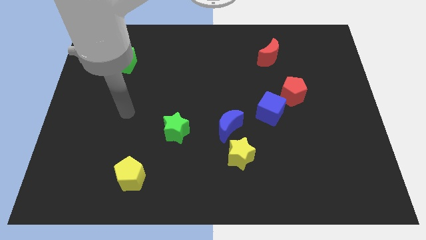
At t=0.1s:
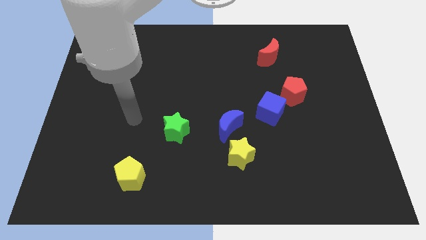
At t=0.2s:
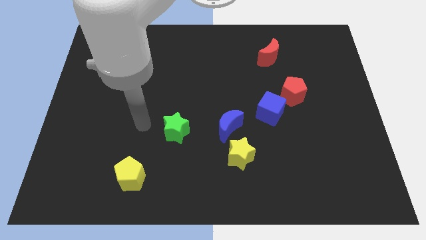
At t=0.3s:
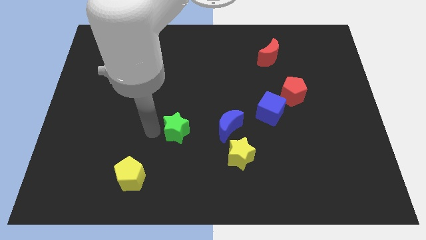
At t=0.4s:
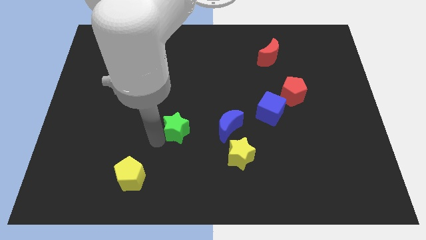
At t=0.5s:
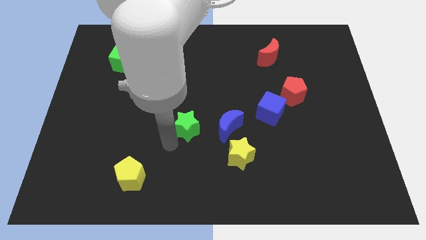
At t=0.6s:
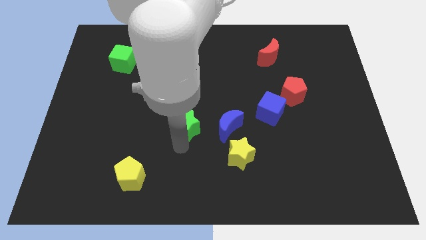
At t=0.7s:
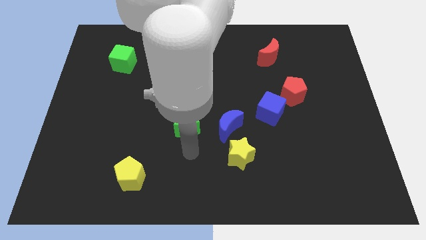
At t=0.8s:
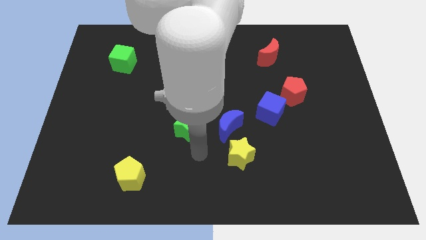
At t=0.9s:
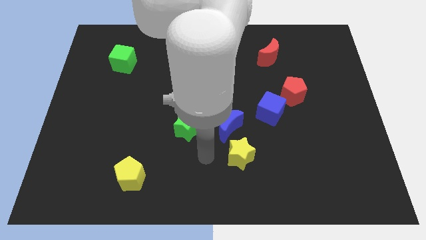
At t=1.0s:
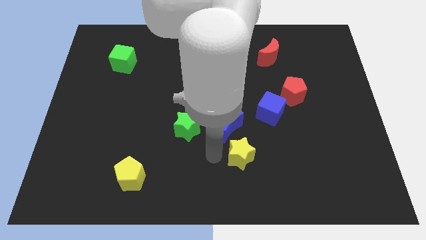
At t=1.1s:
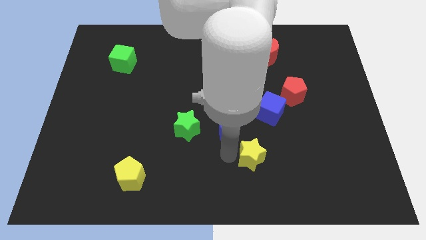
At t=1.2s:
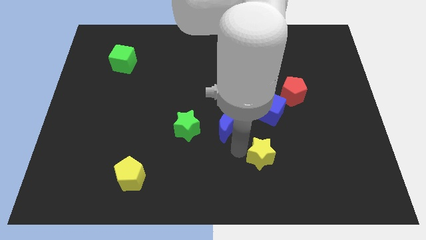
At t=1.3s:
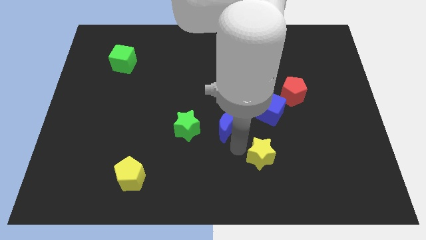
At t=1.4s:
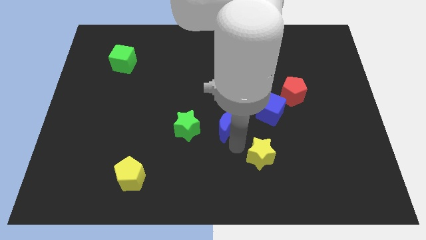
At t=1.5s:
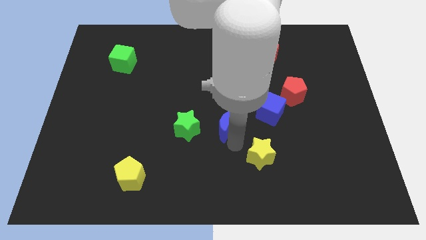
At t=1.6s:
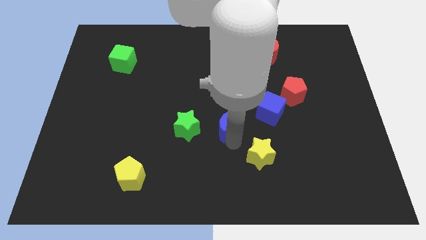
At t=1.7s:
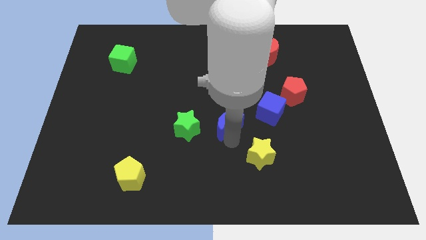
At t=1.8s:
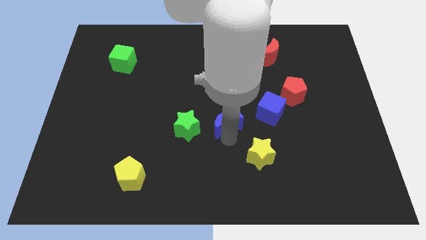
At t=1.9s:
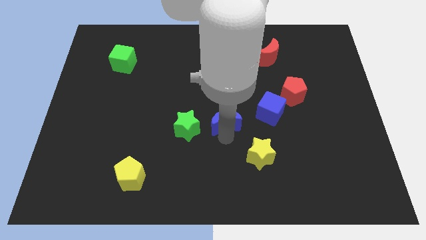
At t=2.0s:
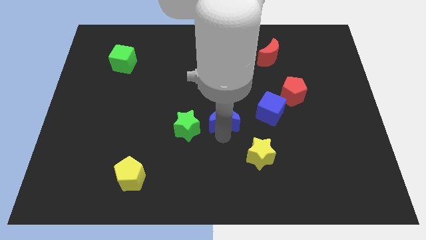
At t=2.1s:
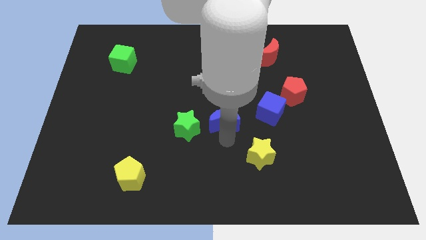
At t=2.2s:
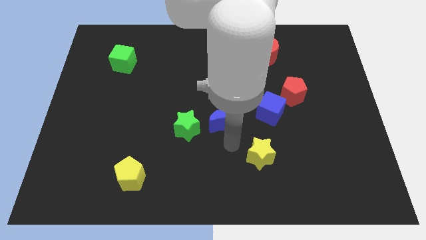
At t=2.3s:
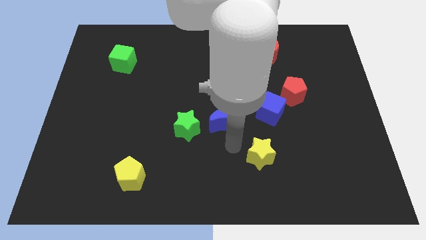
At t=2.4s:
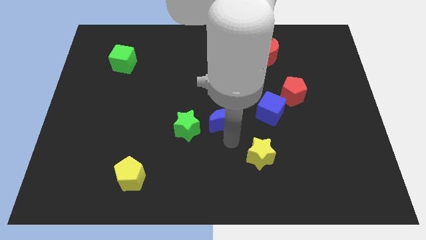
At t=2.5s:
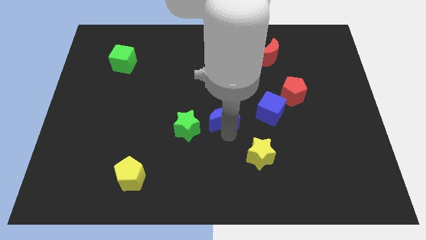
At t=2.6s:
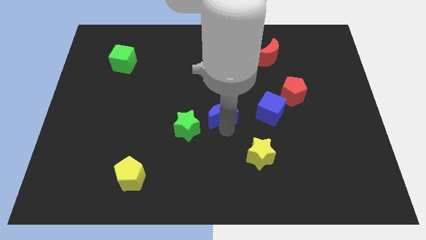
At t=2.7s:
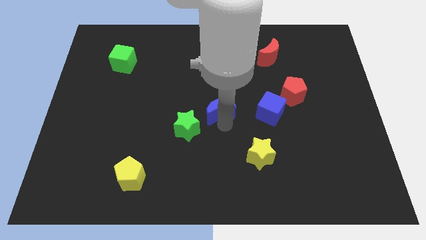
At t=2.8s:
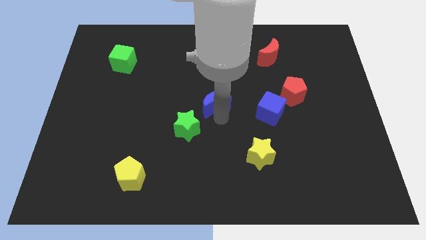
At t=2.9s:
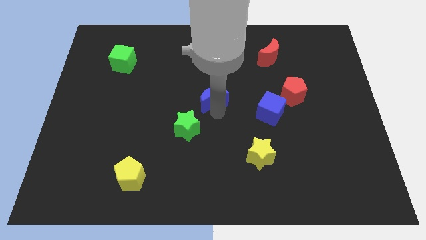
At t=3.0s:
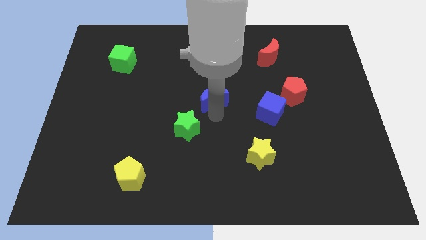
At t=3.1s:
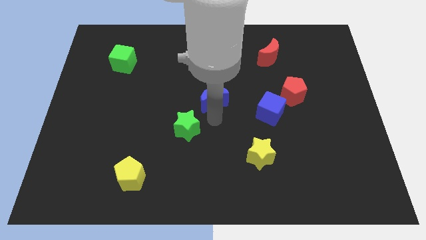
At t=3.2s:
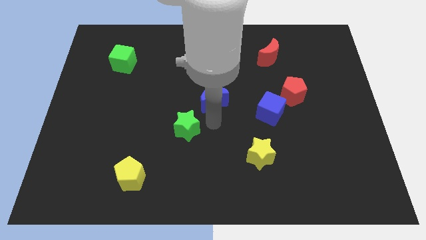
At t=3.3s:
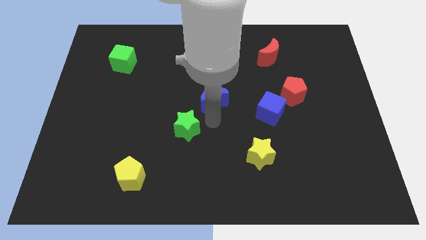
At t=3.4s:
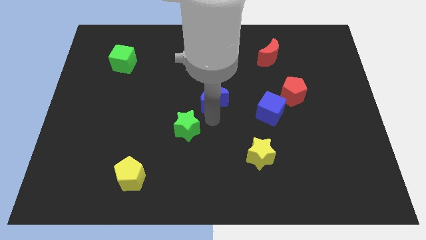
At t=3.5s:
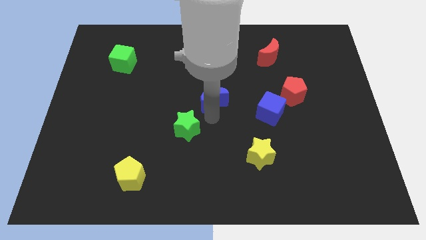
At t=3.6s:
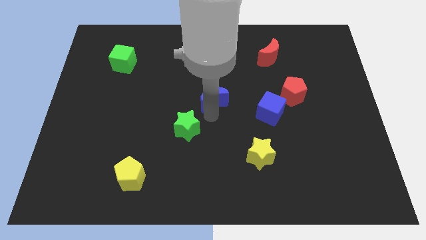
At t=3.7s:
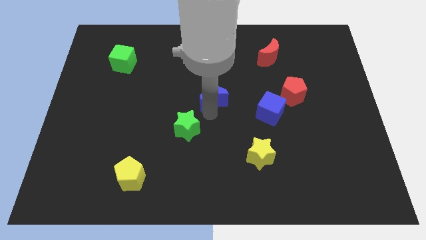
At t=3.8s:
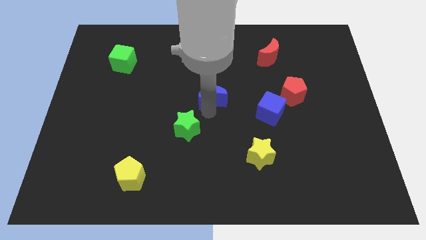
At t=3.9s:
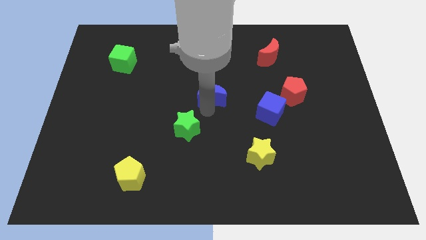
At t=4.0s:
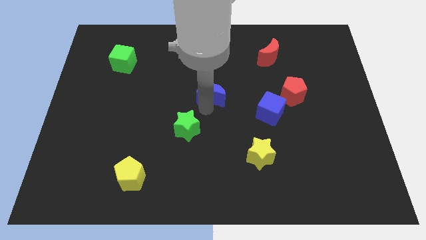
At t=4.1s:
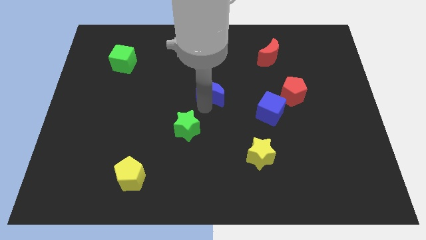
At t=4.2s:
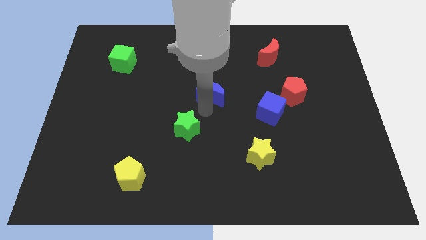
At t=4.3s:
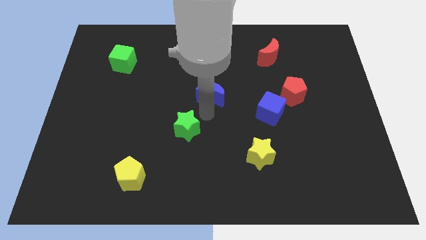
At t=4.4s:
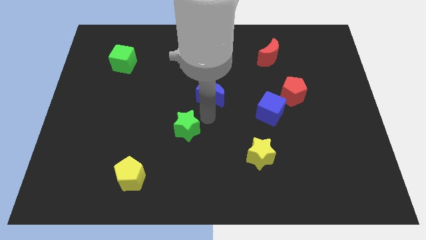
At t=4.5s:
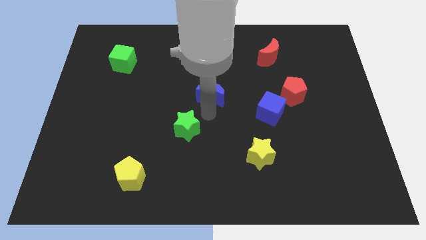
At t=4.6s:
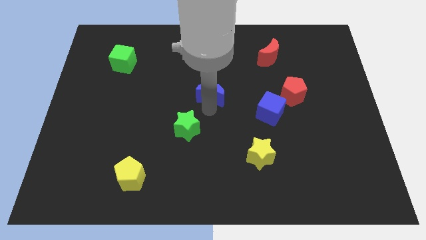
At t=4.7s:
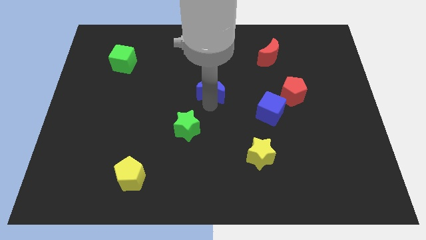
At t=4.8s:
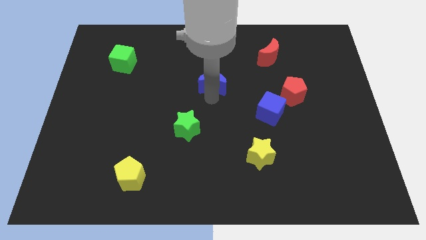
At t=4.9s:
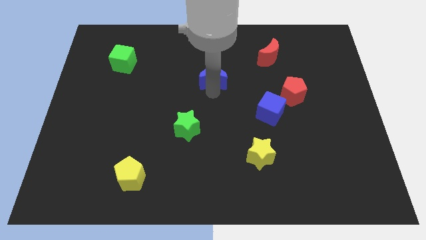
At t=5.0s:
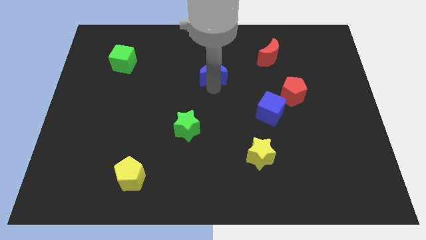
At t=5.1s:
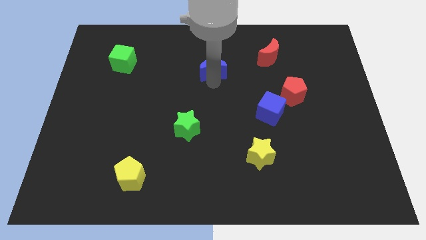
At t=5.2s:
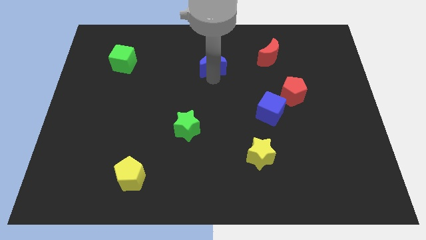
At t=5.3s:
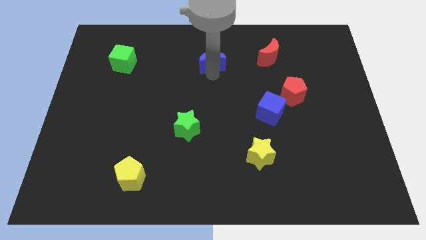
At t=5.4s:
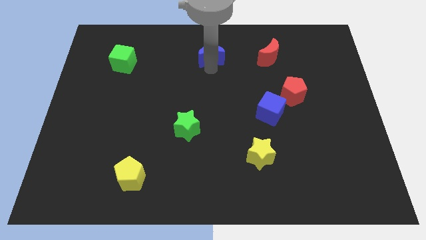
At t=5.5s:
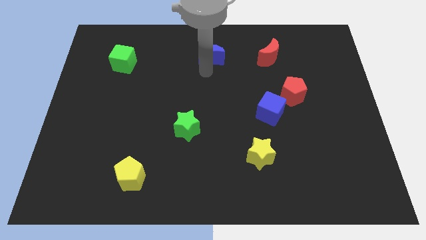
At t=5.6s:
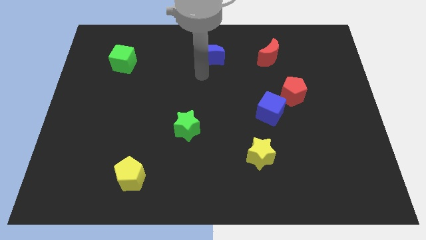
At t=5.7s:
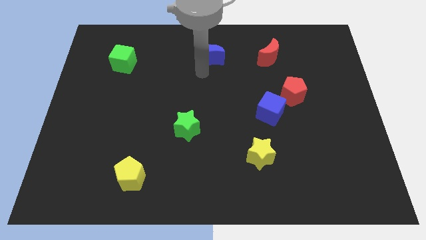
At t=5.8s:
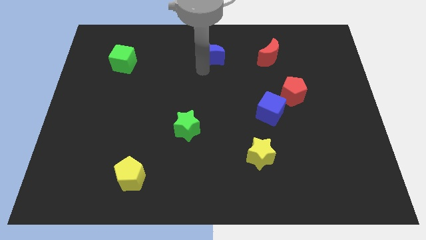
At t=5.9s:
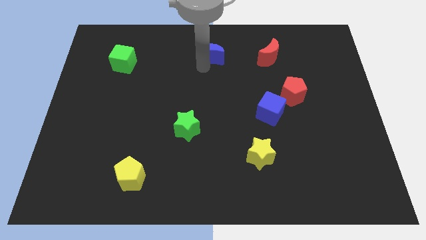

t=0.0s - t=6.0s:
push the blue moon to the top
